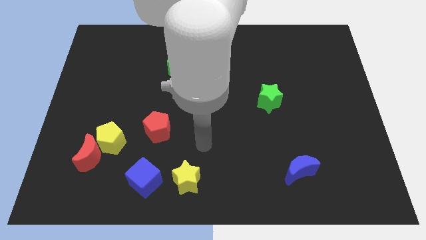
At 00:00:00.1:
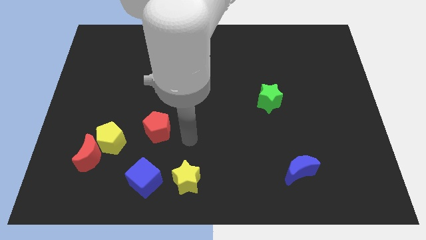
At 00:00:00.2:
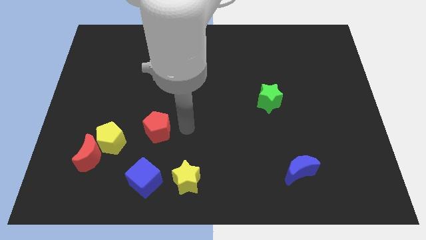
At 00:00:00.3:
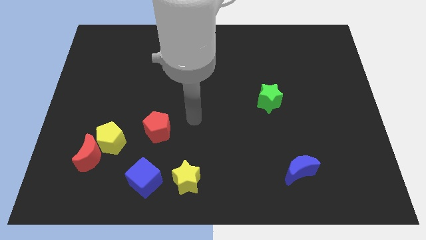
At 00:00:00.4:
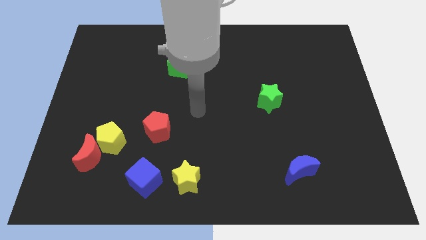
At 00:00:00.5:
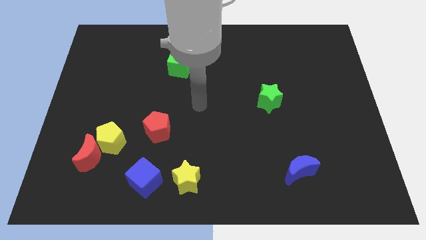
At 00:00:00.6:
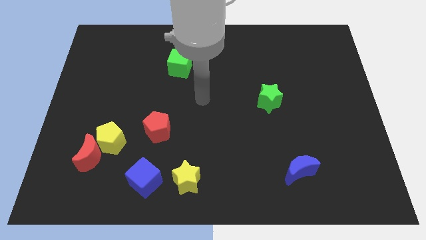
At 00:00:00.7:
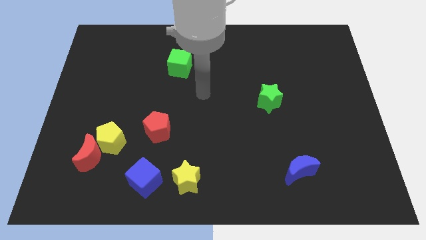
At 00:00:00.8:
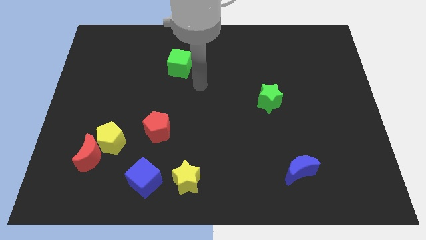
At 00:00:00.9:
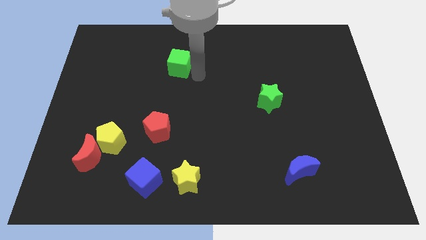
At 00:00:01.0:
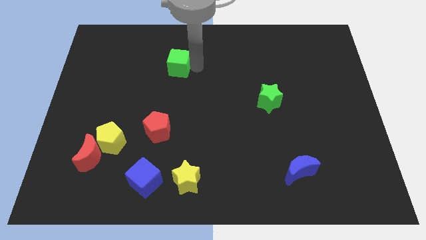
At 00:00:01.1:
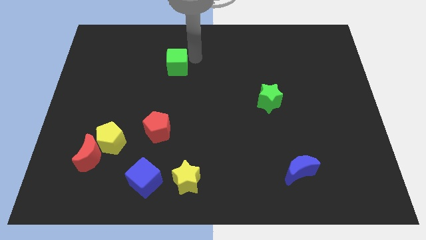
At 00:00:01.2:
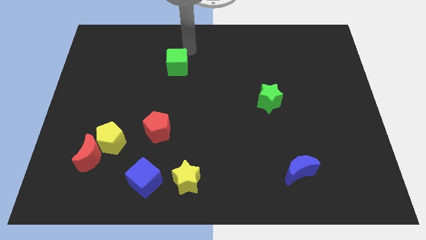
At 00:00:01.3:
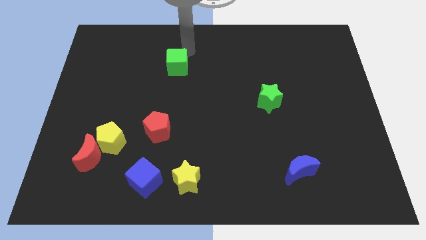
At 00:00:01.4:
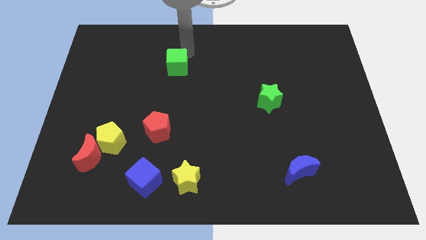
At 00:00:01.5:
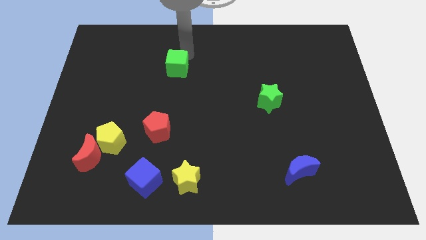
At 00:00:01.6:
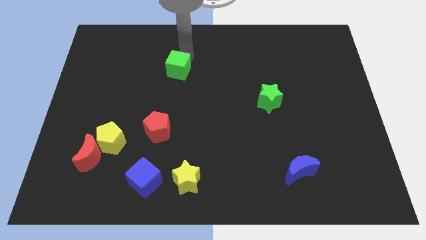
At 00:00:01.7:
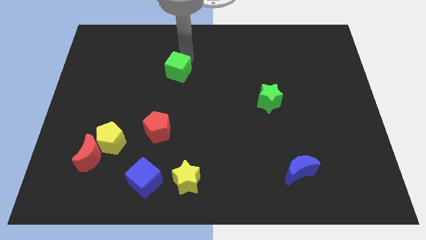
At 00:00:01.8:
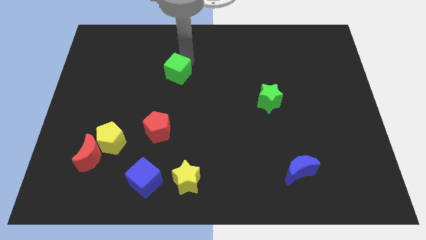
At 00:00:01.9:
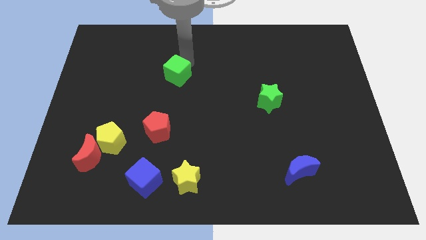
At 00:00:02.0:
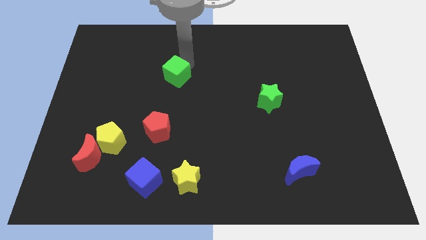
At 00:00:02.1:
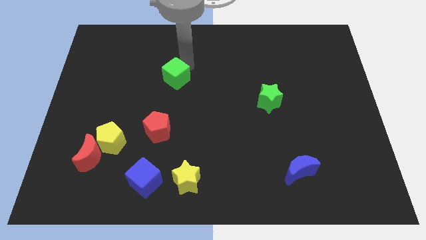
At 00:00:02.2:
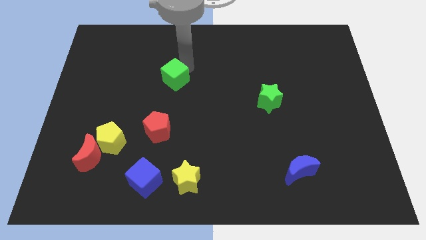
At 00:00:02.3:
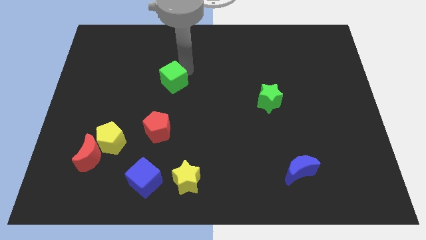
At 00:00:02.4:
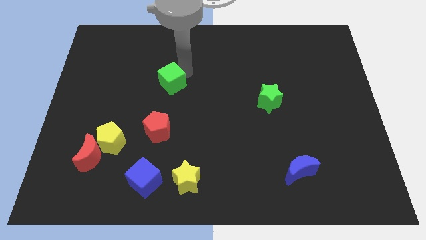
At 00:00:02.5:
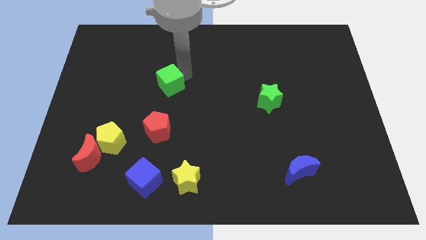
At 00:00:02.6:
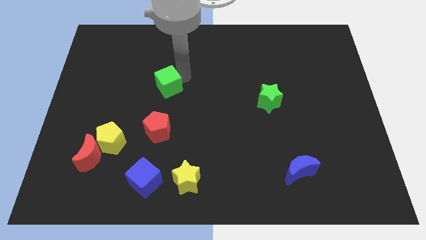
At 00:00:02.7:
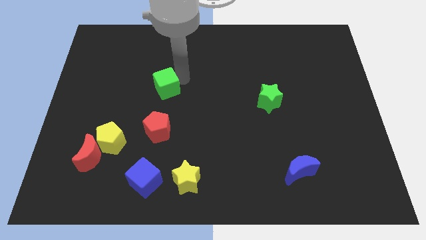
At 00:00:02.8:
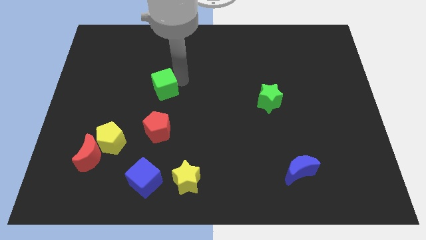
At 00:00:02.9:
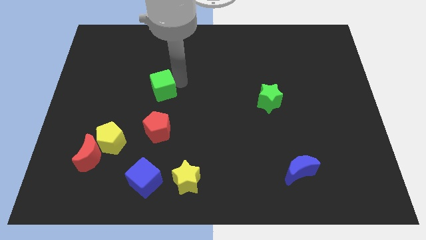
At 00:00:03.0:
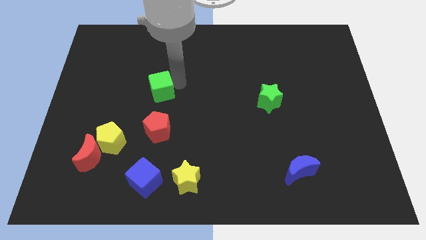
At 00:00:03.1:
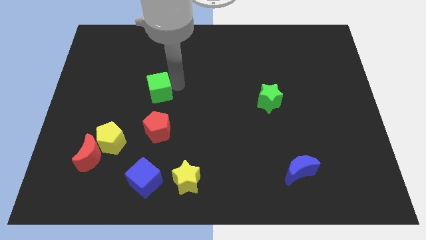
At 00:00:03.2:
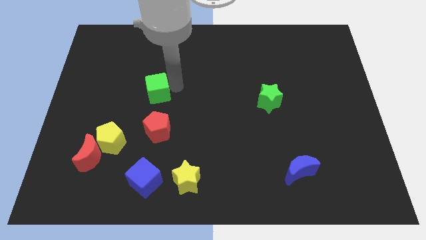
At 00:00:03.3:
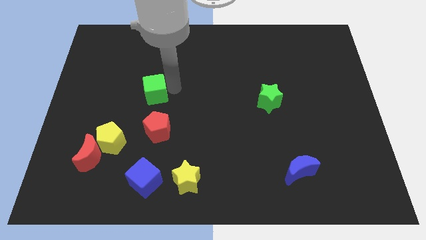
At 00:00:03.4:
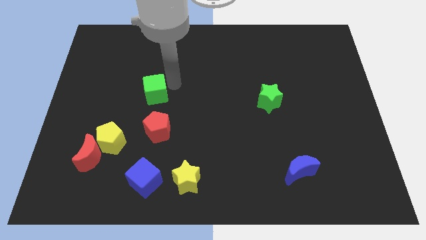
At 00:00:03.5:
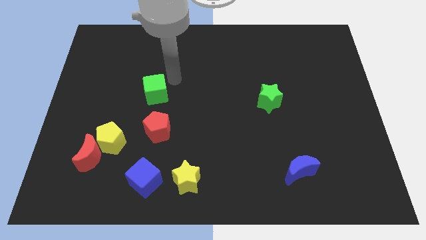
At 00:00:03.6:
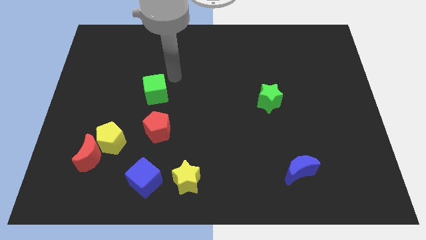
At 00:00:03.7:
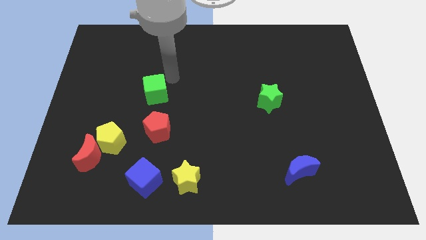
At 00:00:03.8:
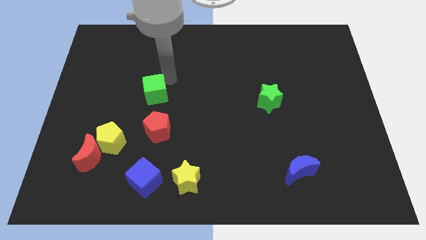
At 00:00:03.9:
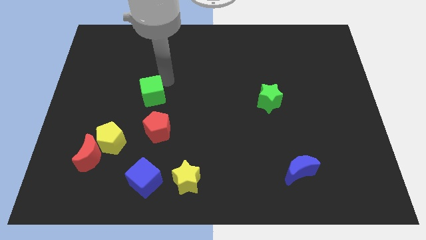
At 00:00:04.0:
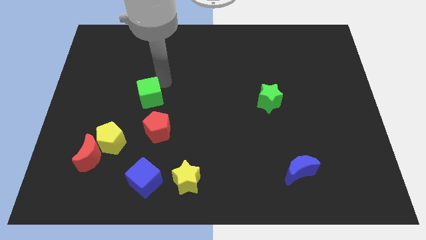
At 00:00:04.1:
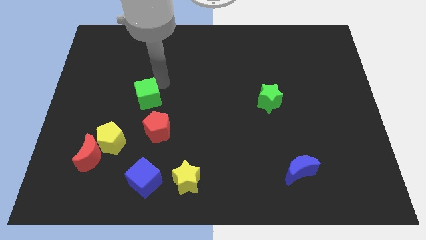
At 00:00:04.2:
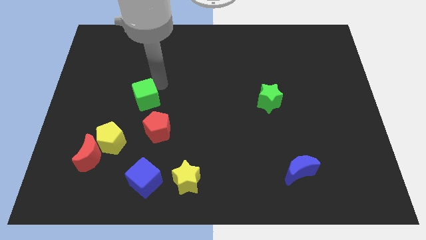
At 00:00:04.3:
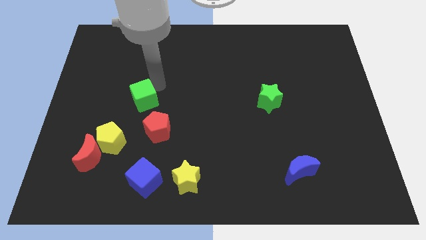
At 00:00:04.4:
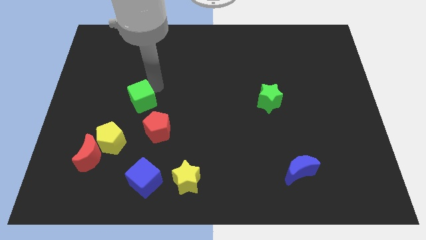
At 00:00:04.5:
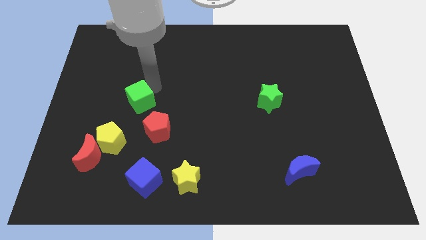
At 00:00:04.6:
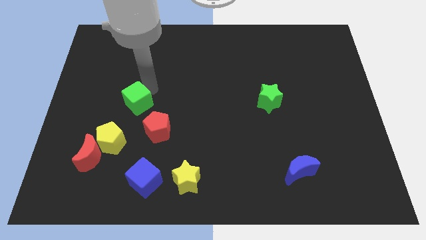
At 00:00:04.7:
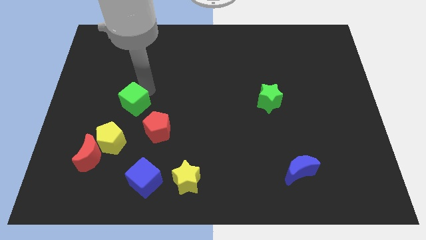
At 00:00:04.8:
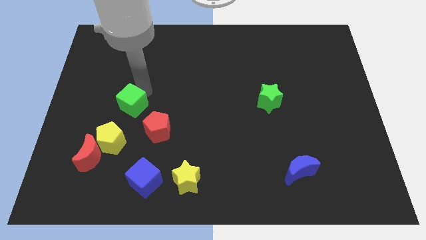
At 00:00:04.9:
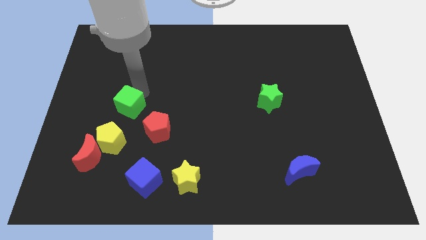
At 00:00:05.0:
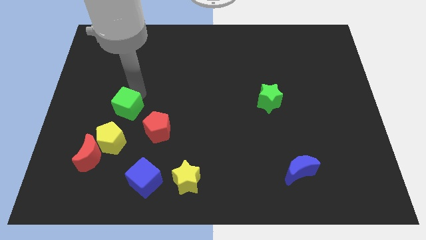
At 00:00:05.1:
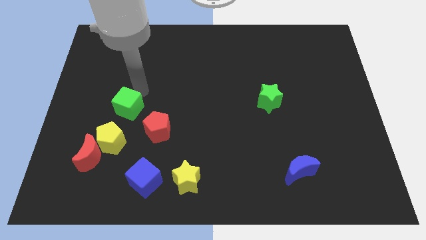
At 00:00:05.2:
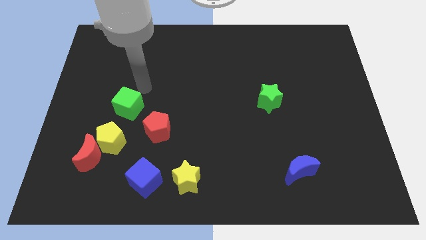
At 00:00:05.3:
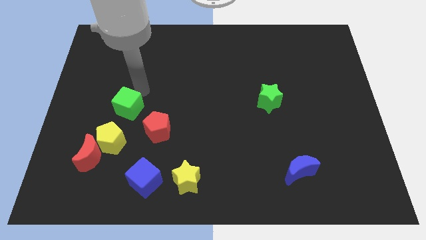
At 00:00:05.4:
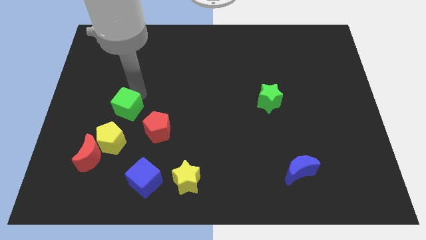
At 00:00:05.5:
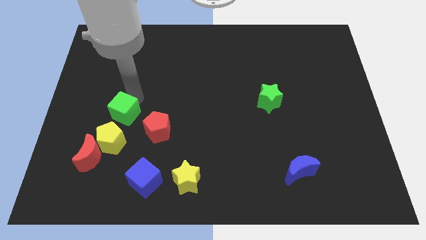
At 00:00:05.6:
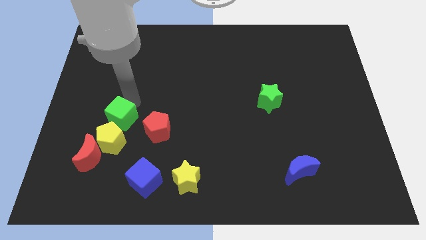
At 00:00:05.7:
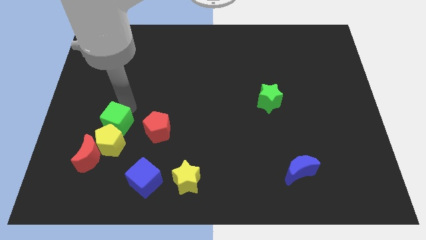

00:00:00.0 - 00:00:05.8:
move the green cube next to the yellow pentagon

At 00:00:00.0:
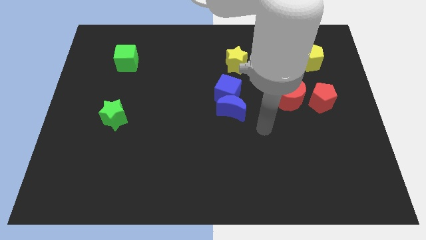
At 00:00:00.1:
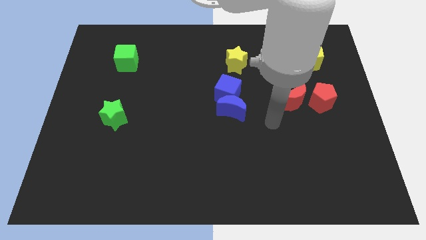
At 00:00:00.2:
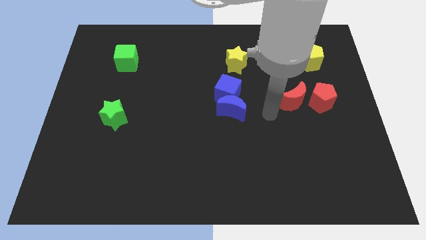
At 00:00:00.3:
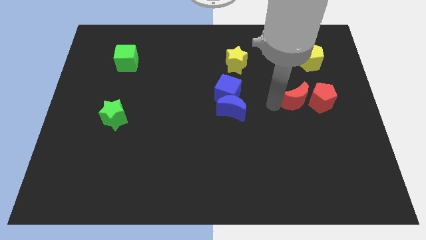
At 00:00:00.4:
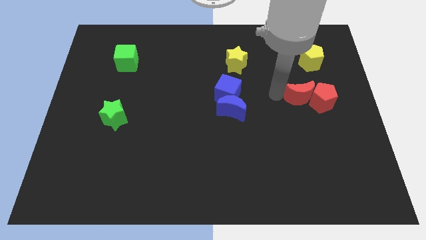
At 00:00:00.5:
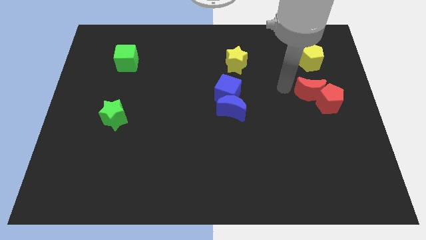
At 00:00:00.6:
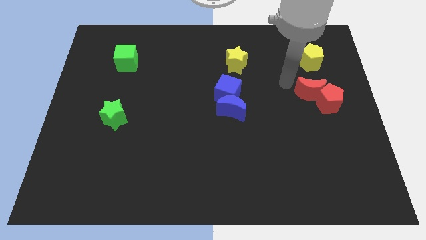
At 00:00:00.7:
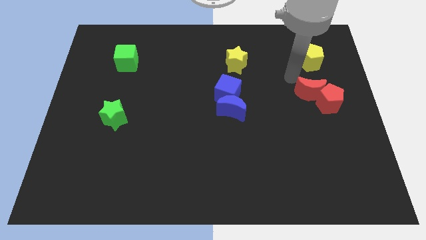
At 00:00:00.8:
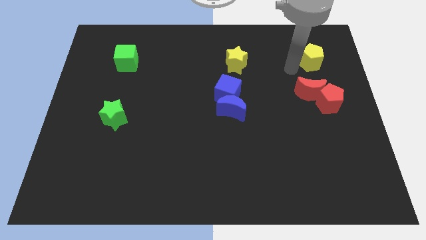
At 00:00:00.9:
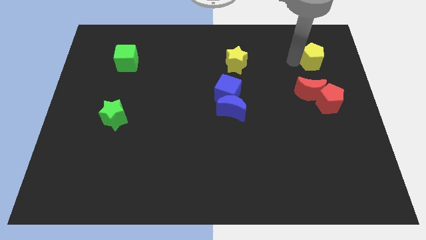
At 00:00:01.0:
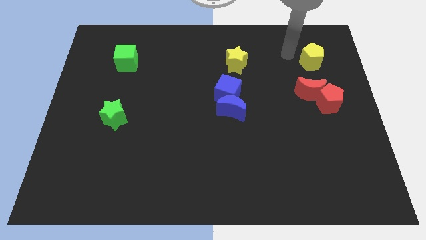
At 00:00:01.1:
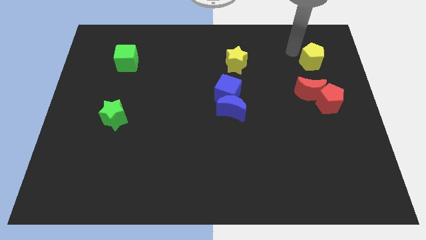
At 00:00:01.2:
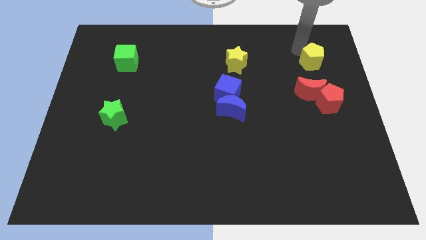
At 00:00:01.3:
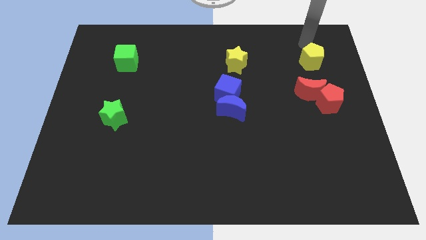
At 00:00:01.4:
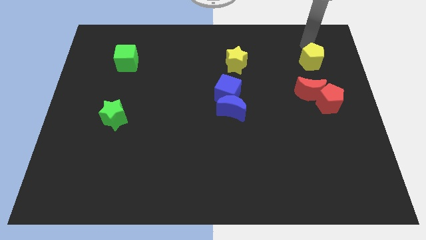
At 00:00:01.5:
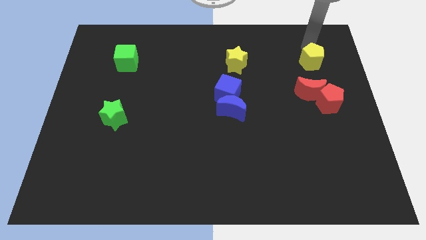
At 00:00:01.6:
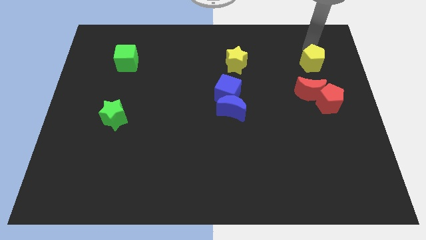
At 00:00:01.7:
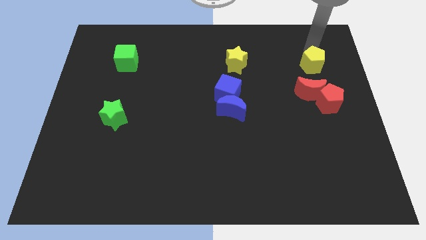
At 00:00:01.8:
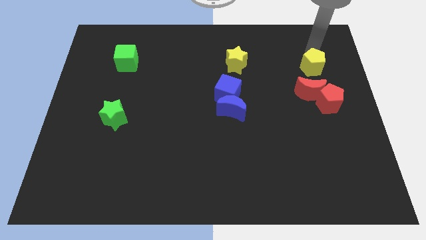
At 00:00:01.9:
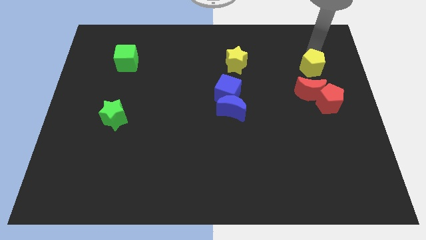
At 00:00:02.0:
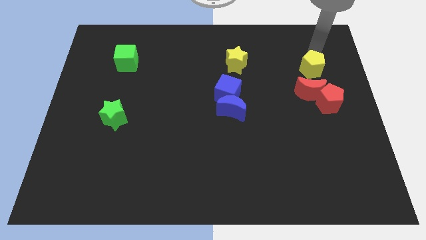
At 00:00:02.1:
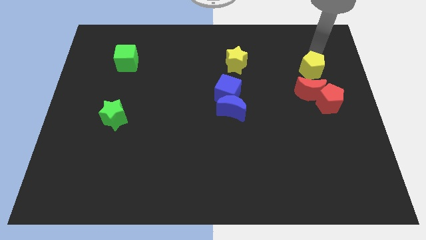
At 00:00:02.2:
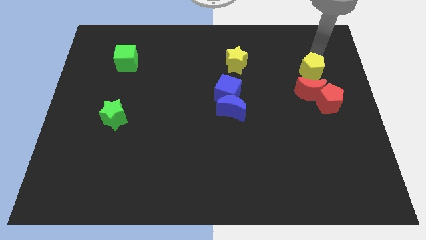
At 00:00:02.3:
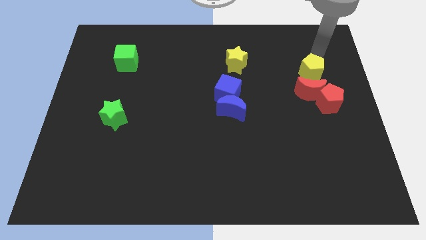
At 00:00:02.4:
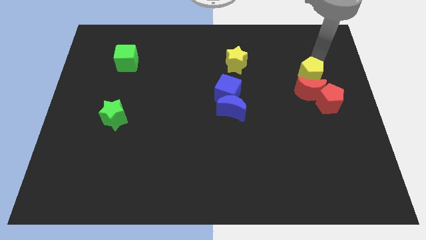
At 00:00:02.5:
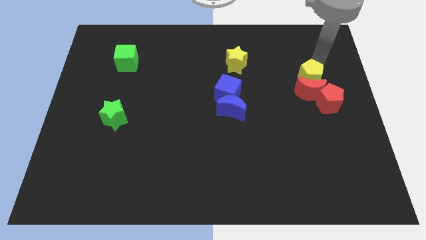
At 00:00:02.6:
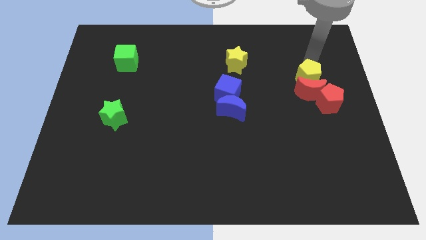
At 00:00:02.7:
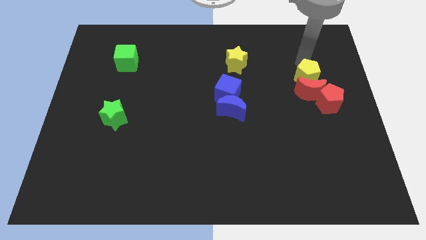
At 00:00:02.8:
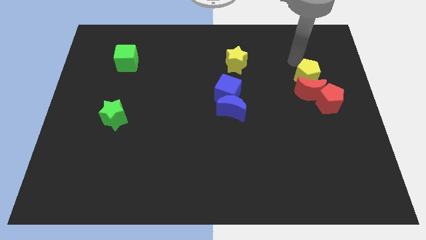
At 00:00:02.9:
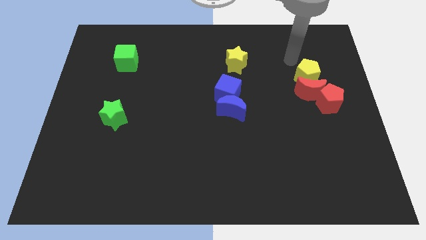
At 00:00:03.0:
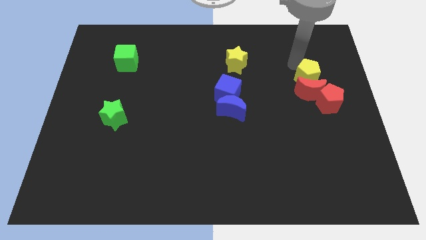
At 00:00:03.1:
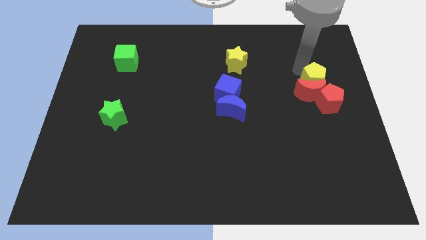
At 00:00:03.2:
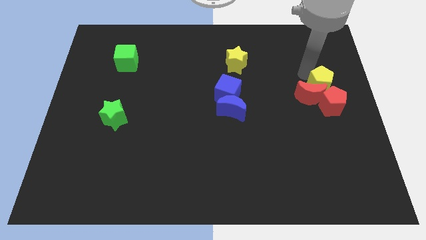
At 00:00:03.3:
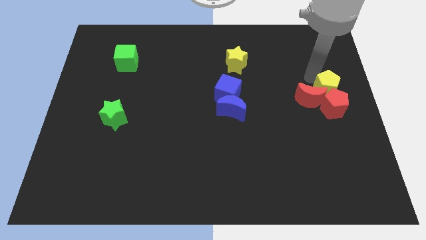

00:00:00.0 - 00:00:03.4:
put the yellow pentagon close to the red pentagon
